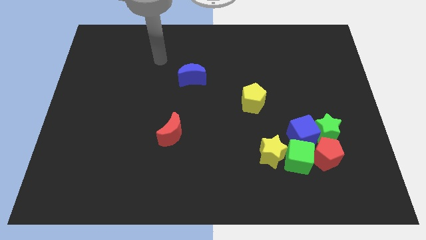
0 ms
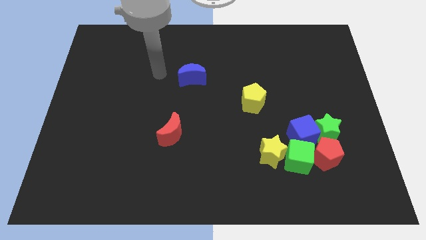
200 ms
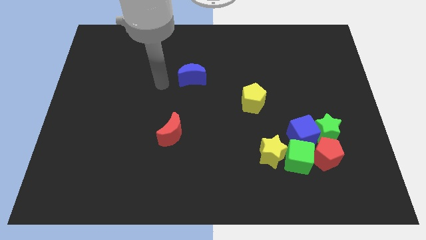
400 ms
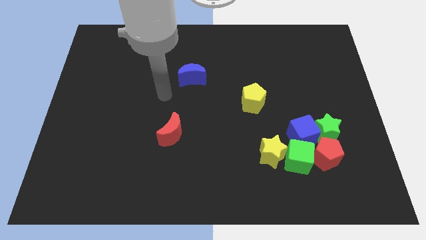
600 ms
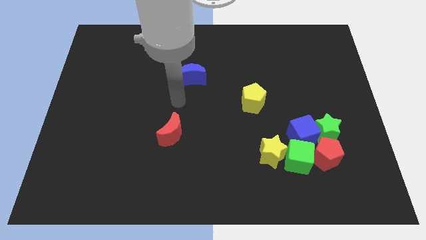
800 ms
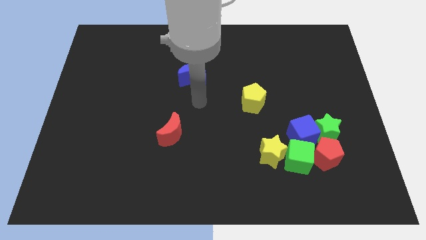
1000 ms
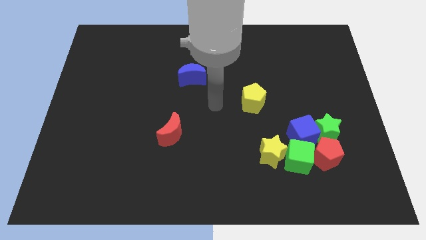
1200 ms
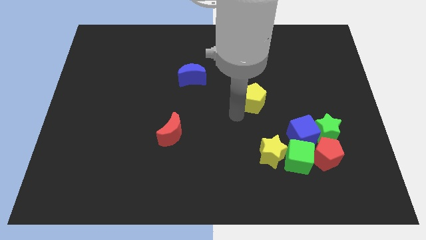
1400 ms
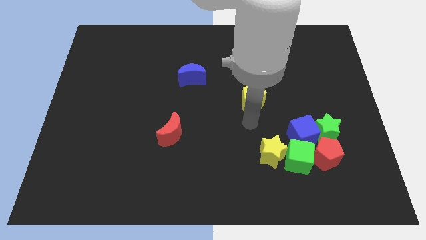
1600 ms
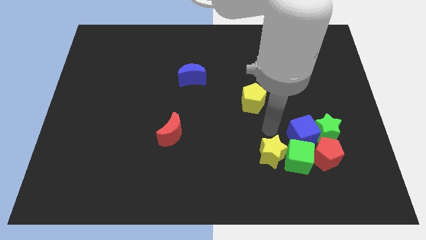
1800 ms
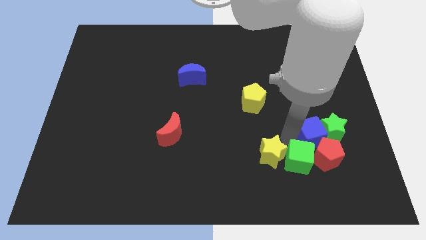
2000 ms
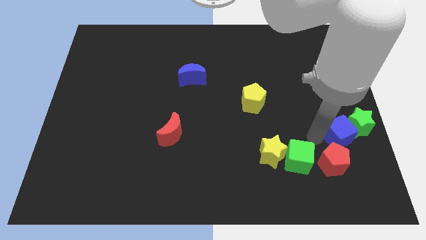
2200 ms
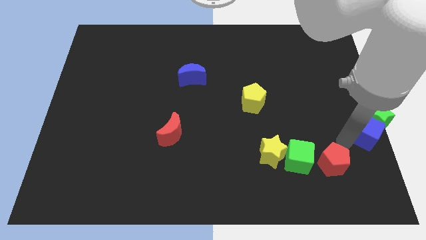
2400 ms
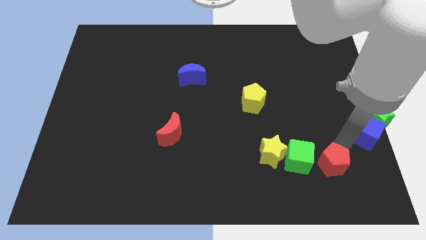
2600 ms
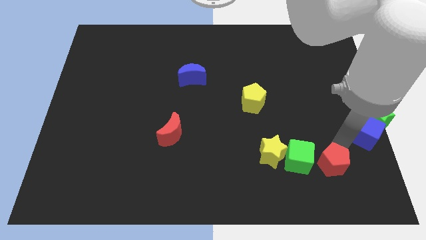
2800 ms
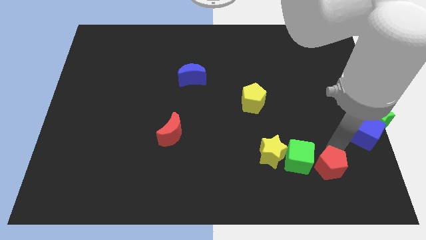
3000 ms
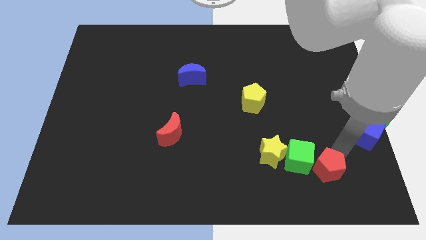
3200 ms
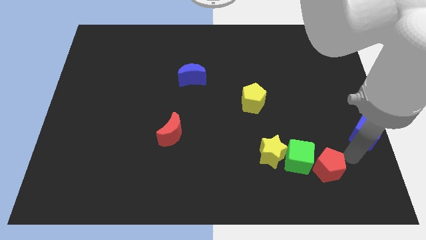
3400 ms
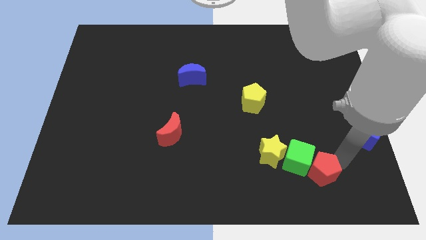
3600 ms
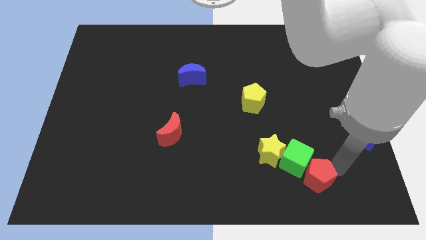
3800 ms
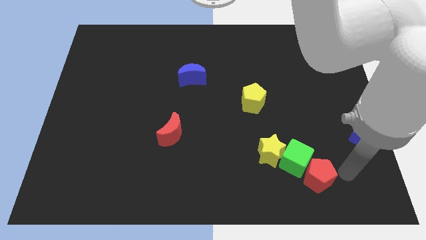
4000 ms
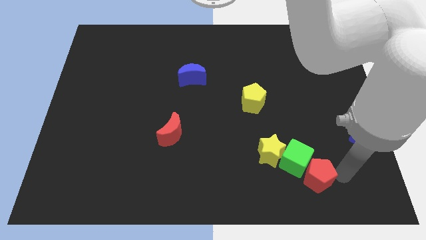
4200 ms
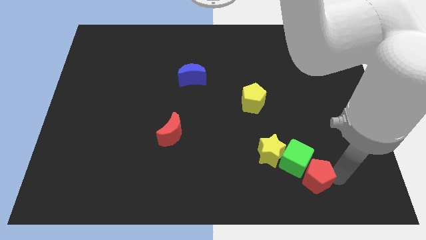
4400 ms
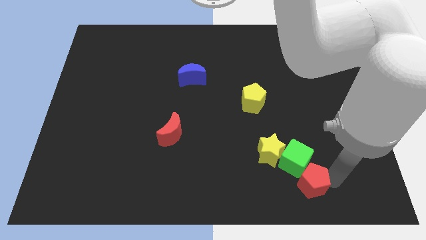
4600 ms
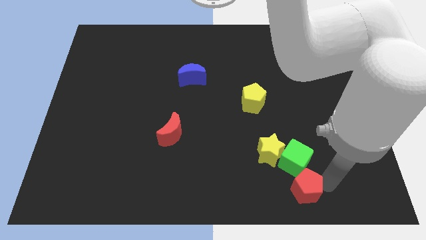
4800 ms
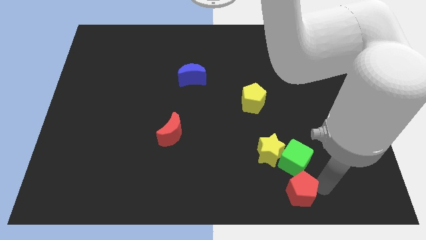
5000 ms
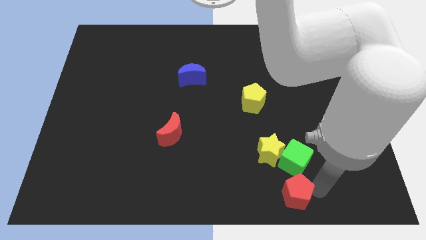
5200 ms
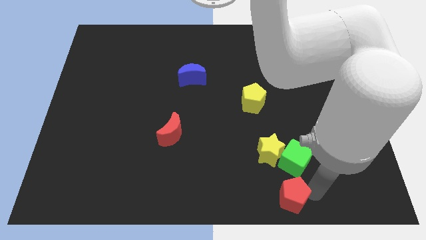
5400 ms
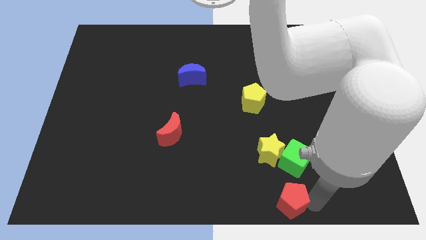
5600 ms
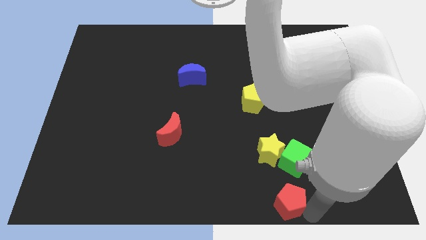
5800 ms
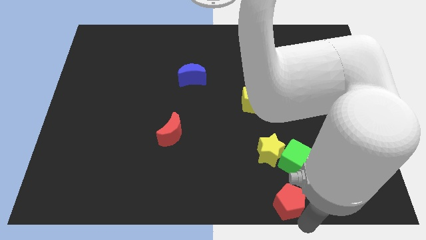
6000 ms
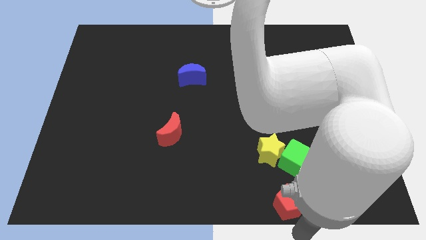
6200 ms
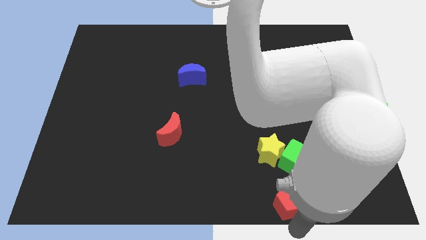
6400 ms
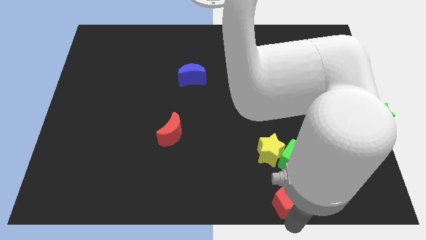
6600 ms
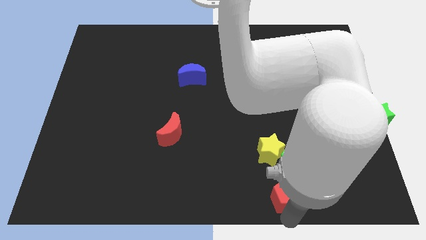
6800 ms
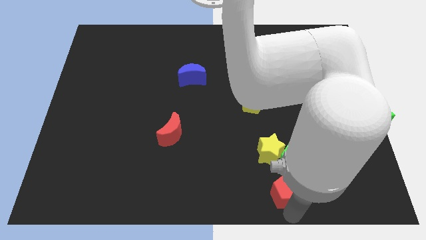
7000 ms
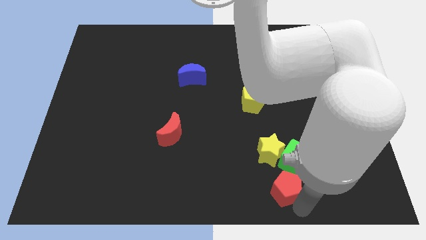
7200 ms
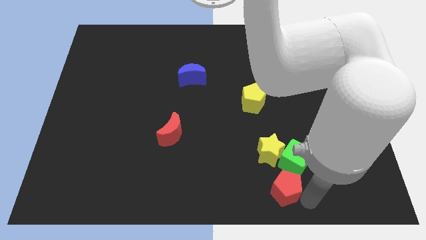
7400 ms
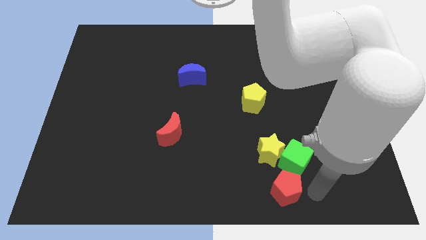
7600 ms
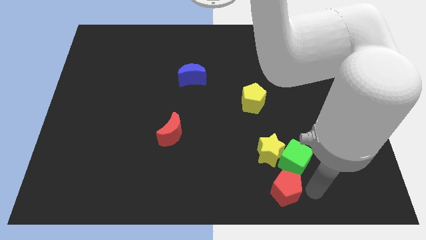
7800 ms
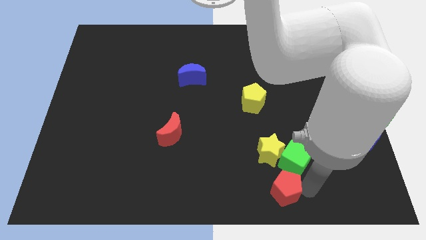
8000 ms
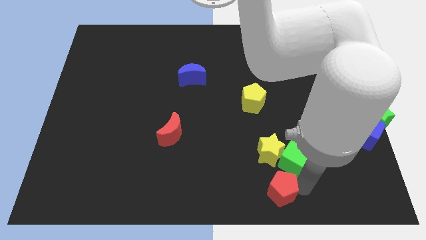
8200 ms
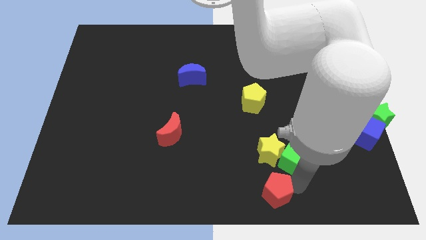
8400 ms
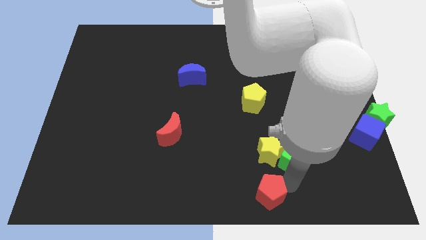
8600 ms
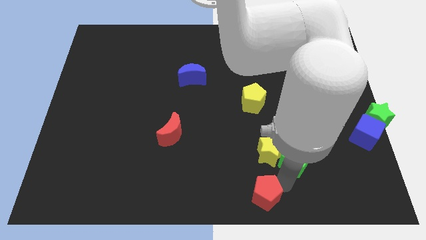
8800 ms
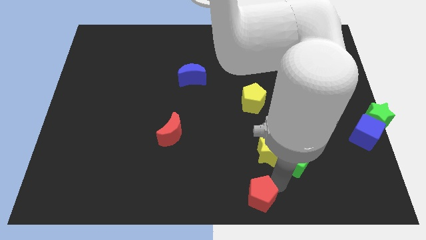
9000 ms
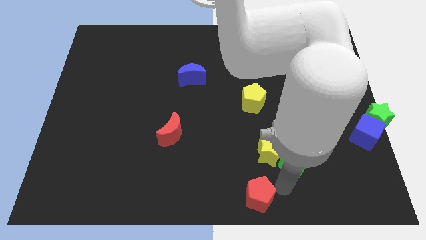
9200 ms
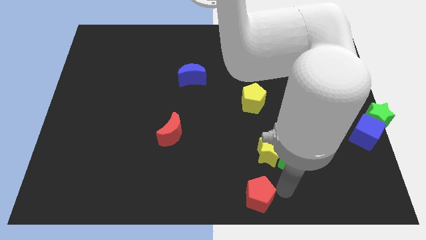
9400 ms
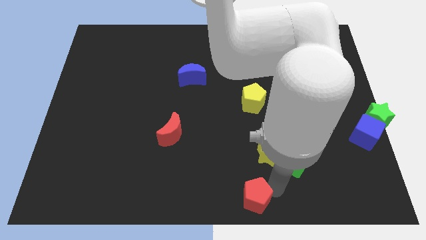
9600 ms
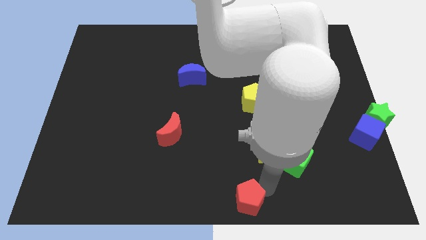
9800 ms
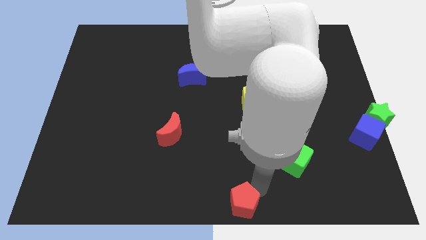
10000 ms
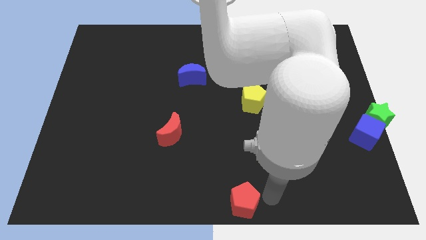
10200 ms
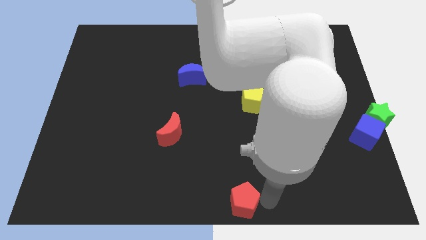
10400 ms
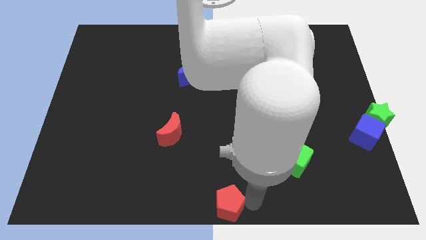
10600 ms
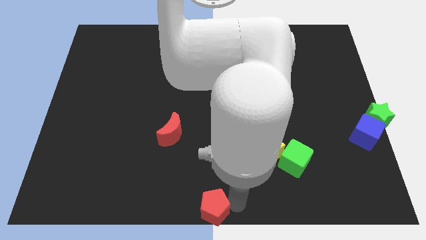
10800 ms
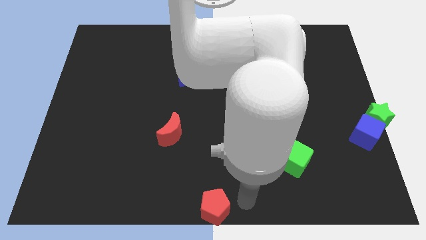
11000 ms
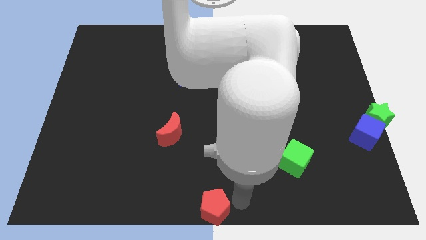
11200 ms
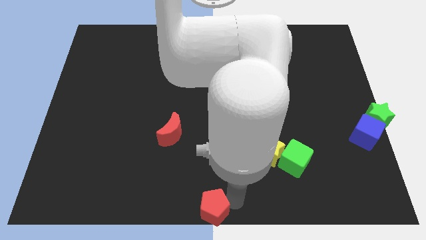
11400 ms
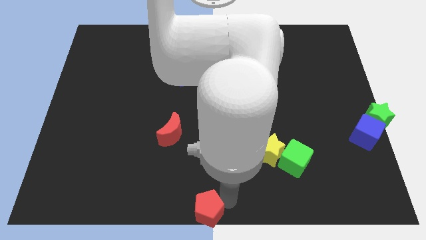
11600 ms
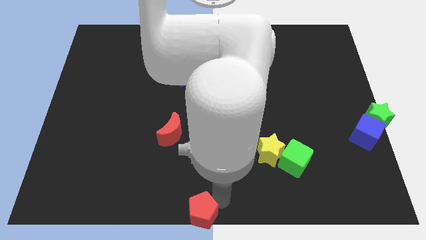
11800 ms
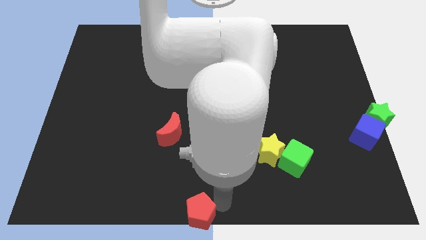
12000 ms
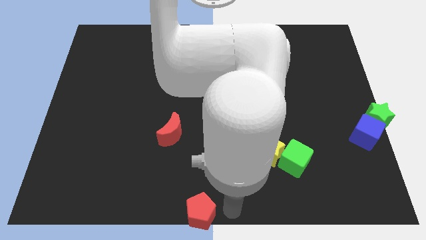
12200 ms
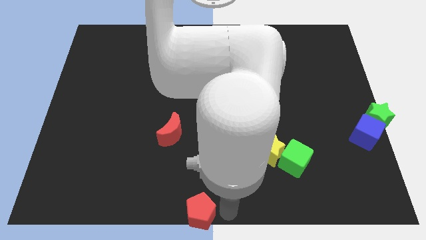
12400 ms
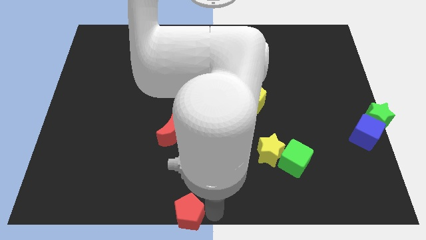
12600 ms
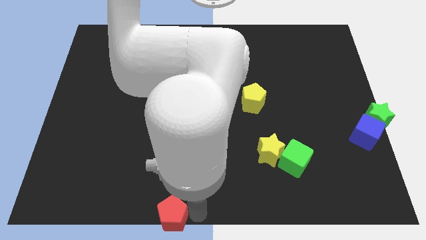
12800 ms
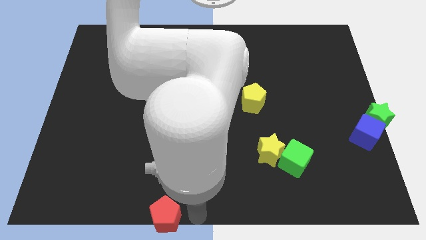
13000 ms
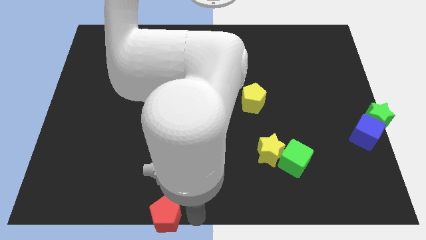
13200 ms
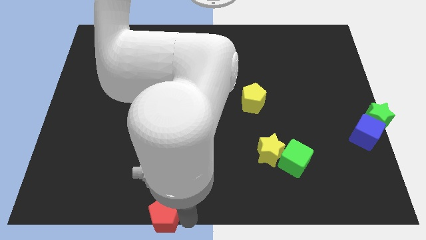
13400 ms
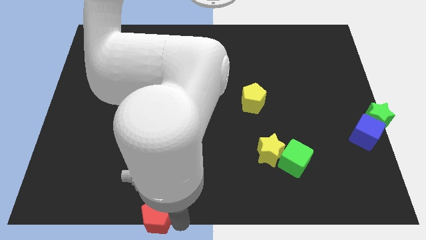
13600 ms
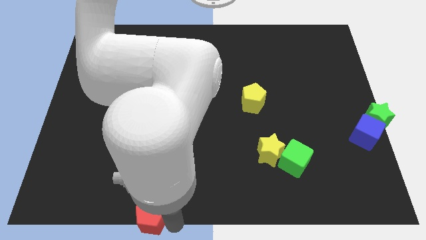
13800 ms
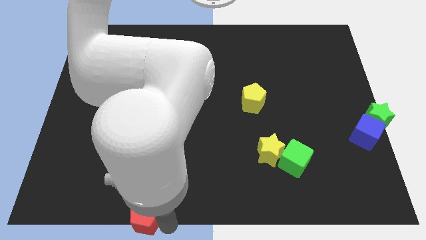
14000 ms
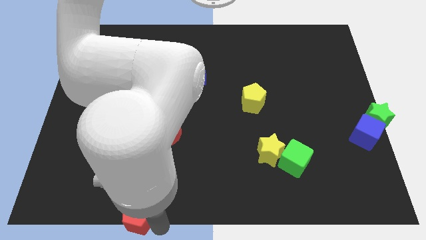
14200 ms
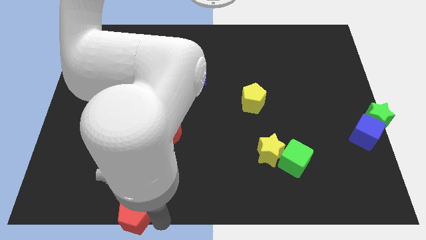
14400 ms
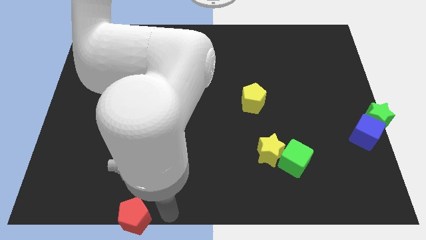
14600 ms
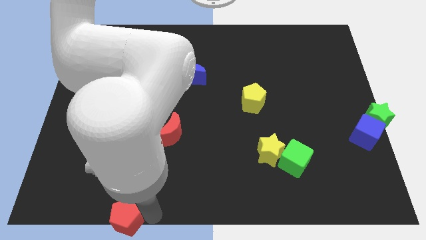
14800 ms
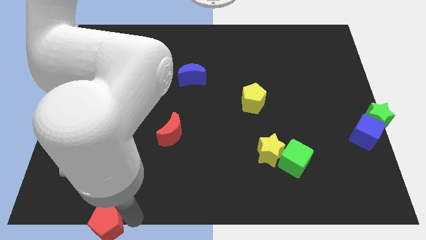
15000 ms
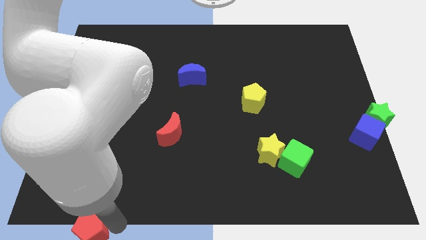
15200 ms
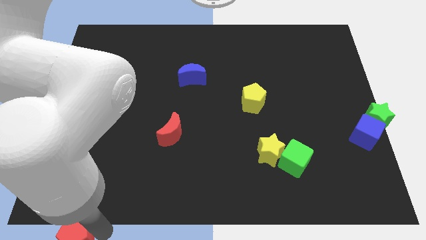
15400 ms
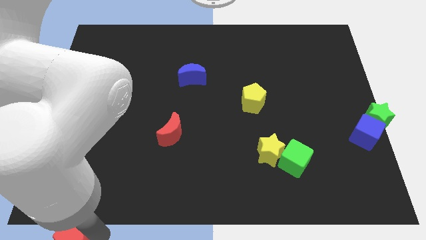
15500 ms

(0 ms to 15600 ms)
slide the red pentagon to the bottom left corner
